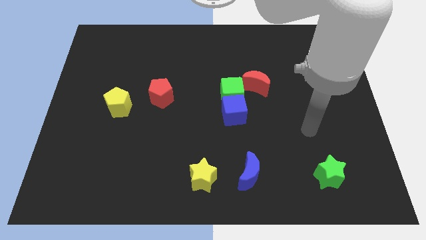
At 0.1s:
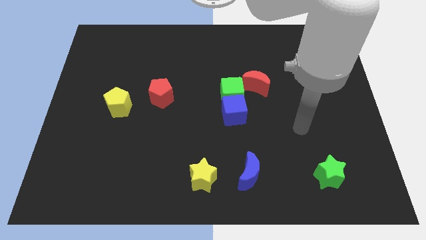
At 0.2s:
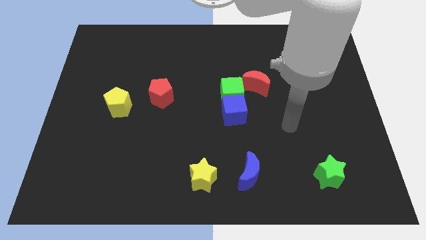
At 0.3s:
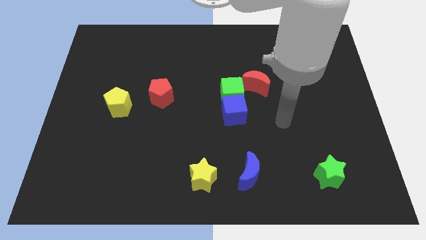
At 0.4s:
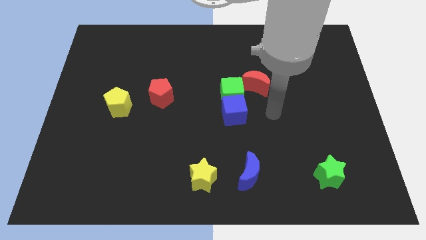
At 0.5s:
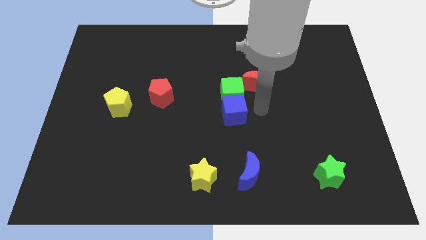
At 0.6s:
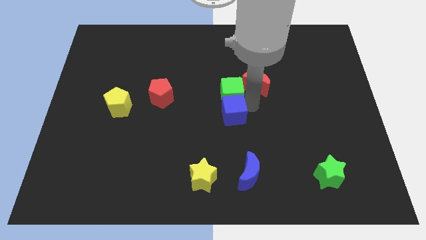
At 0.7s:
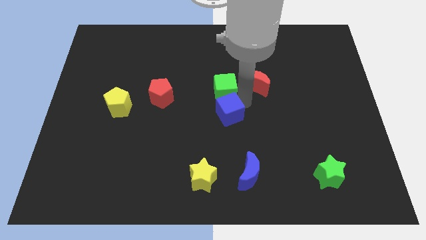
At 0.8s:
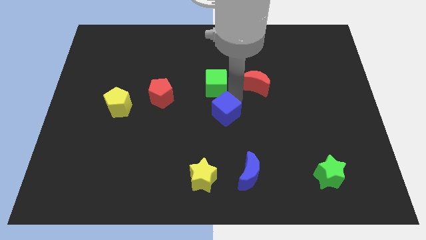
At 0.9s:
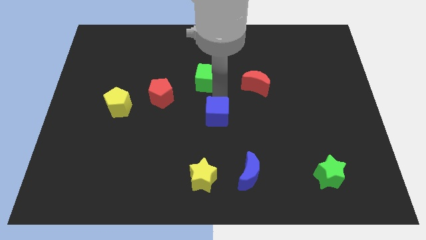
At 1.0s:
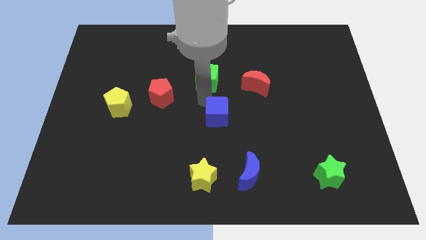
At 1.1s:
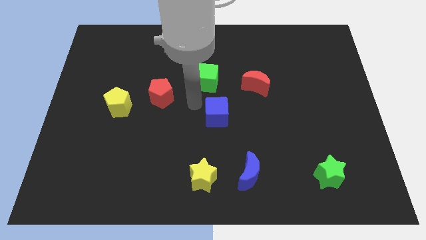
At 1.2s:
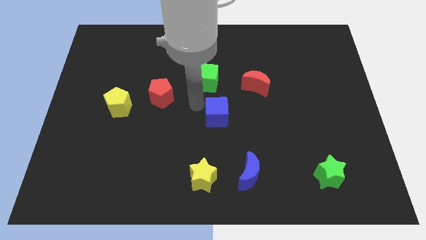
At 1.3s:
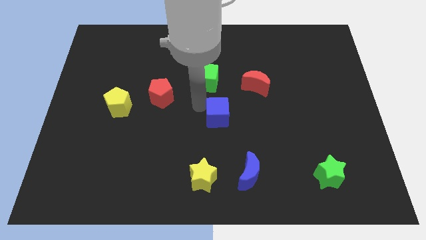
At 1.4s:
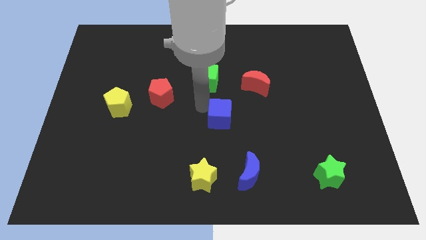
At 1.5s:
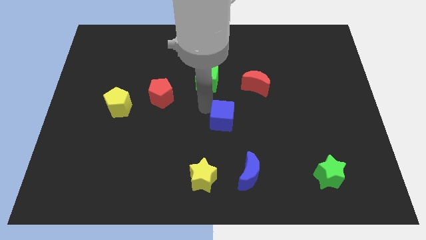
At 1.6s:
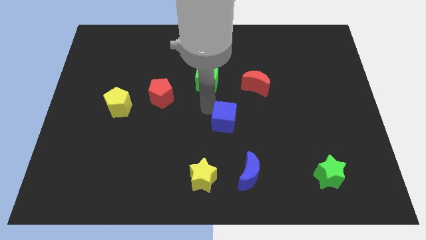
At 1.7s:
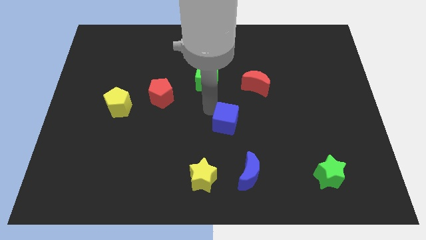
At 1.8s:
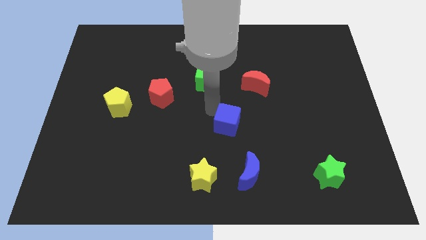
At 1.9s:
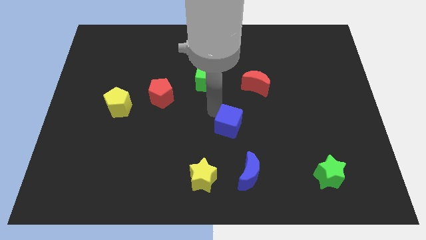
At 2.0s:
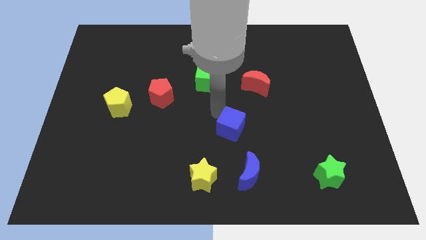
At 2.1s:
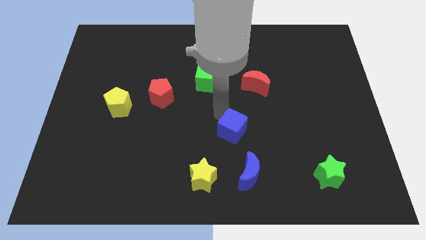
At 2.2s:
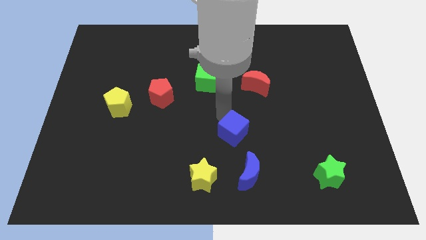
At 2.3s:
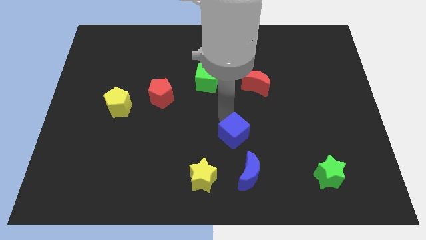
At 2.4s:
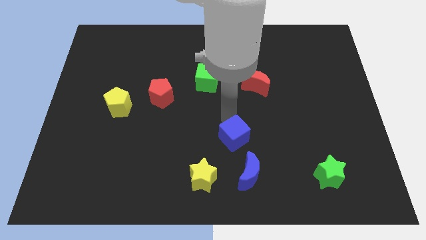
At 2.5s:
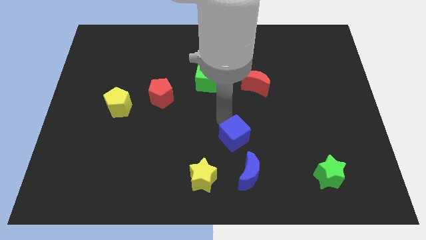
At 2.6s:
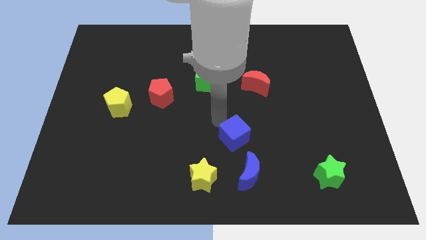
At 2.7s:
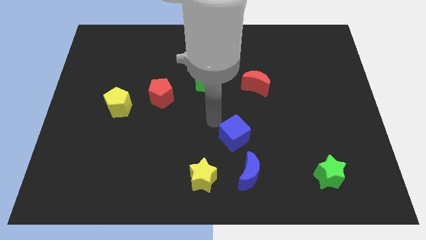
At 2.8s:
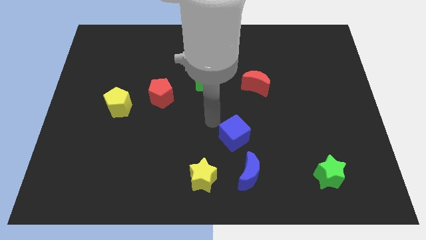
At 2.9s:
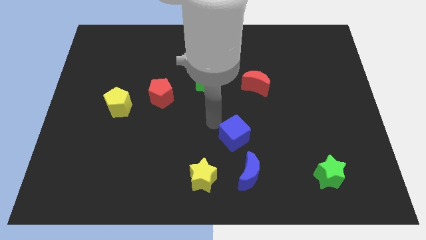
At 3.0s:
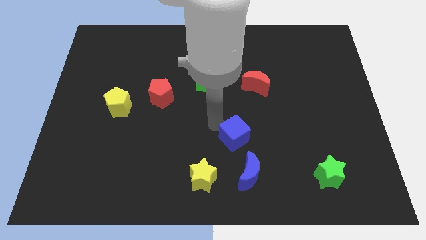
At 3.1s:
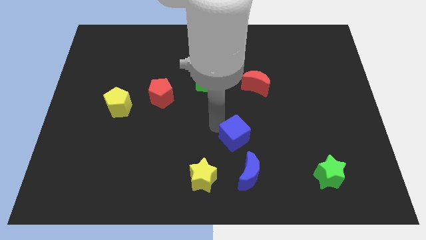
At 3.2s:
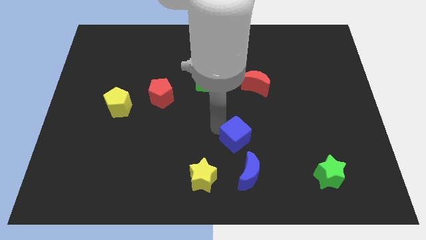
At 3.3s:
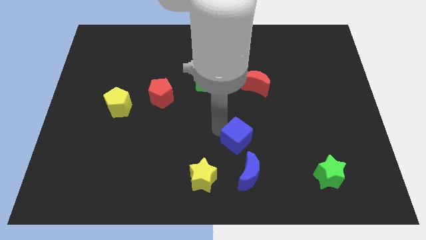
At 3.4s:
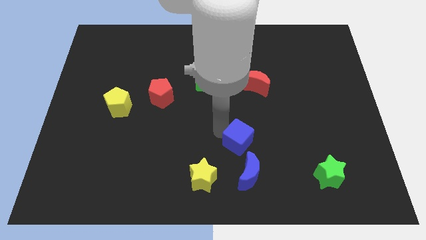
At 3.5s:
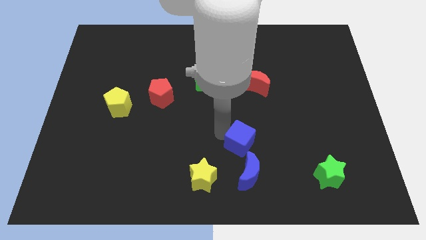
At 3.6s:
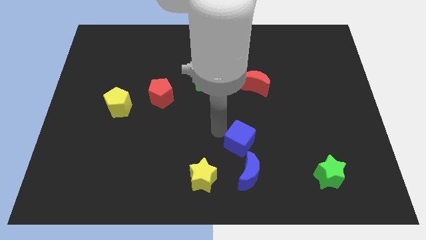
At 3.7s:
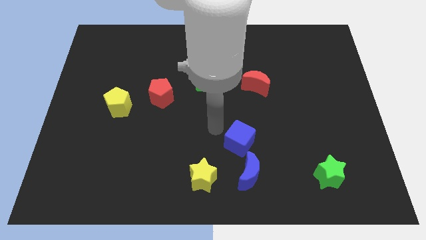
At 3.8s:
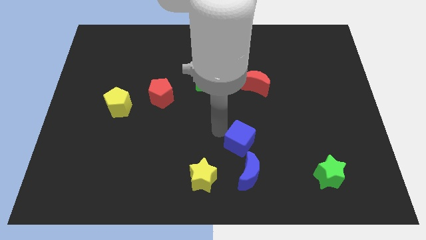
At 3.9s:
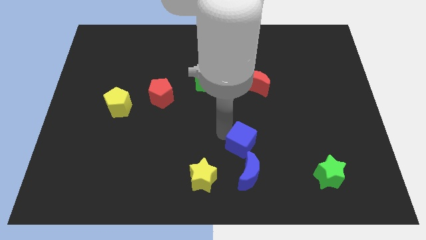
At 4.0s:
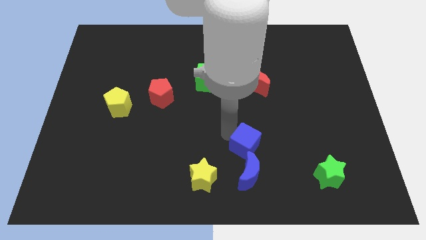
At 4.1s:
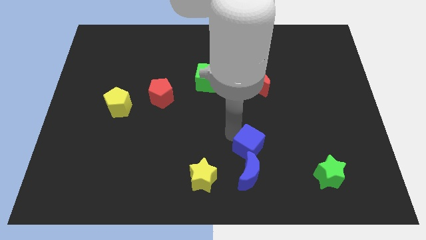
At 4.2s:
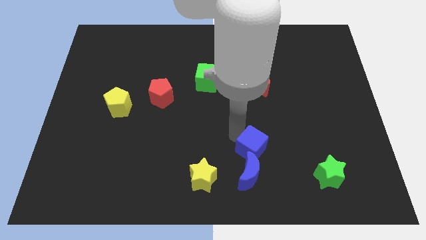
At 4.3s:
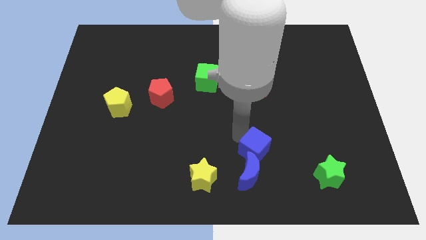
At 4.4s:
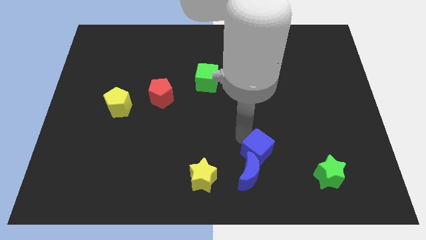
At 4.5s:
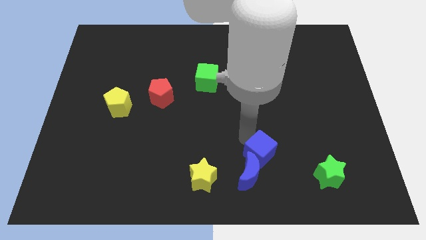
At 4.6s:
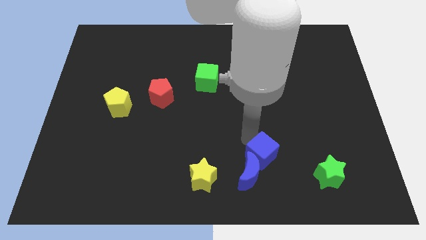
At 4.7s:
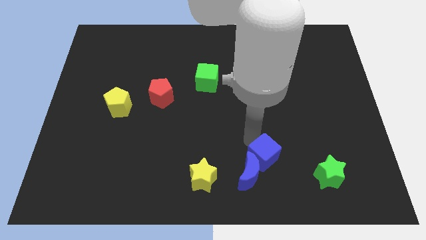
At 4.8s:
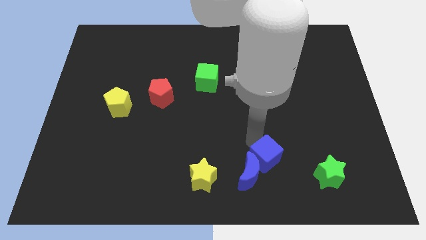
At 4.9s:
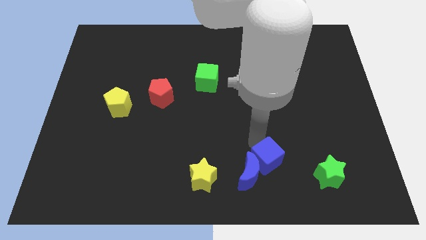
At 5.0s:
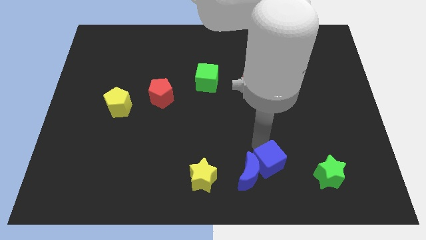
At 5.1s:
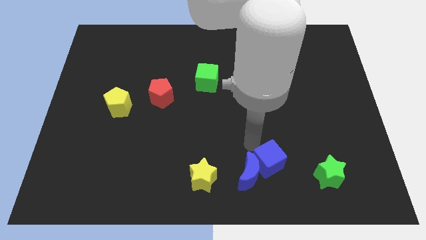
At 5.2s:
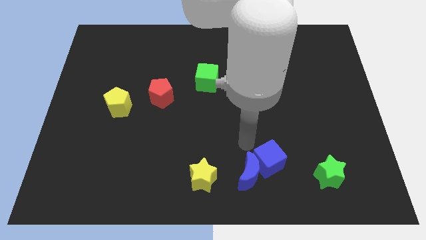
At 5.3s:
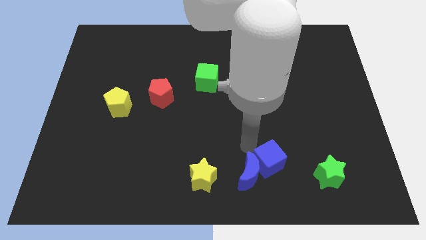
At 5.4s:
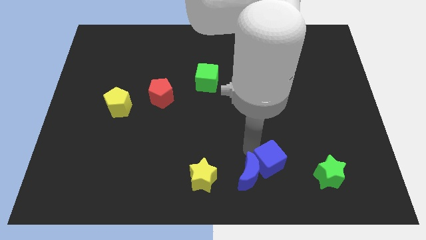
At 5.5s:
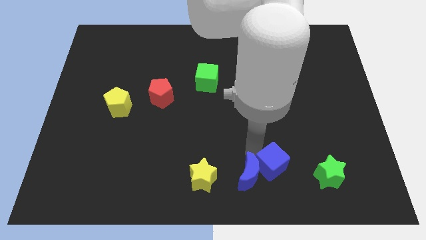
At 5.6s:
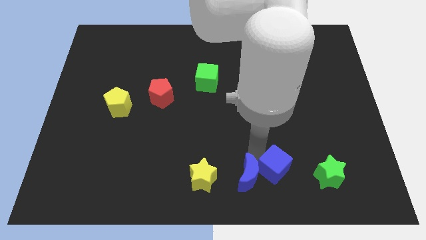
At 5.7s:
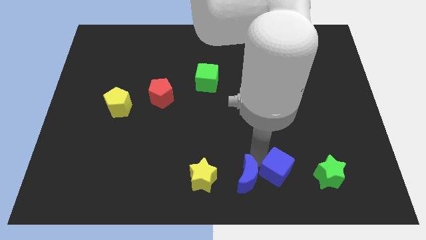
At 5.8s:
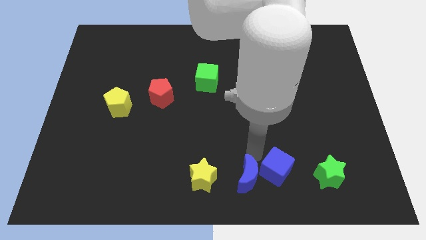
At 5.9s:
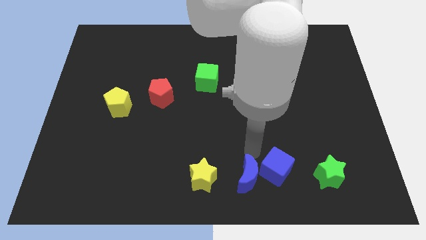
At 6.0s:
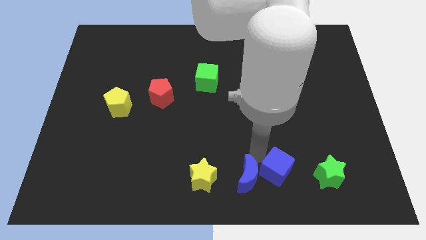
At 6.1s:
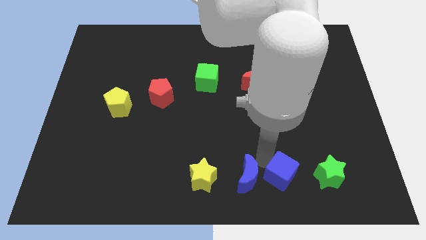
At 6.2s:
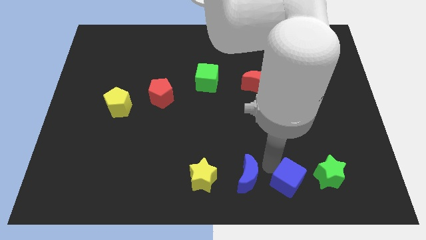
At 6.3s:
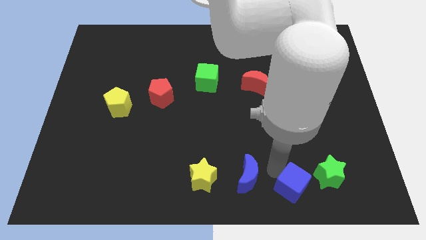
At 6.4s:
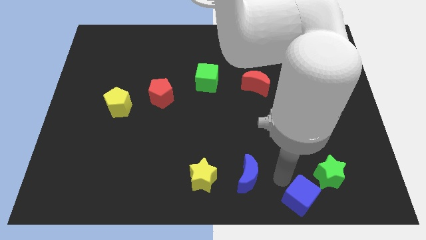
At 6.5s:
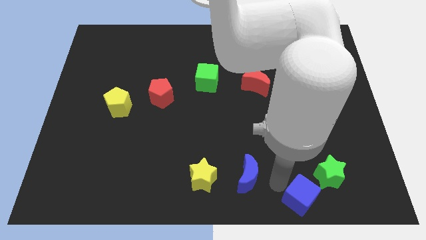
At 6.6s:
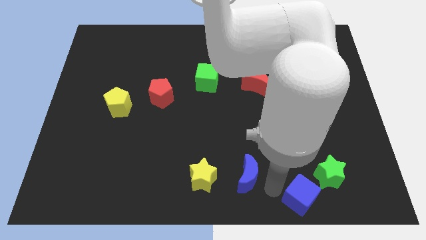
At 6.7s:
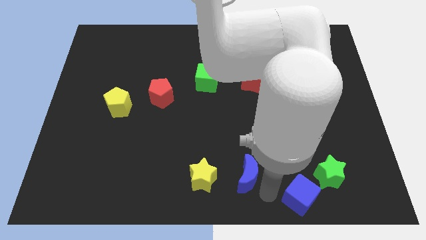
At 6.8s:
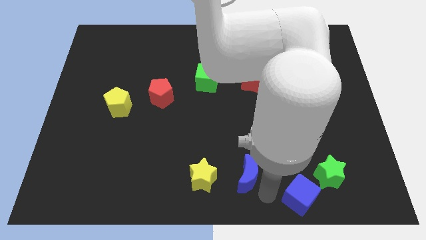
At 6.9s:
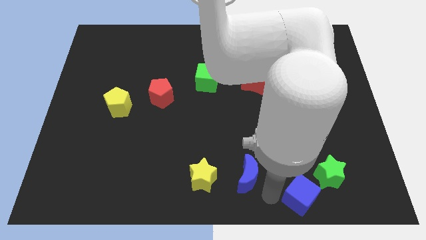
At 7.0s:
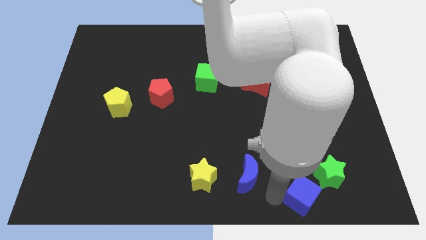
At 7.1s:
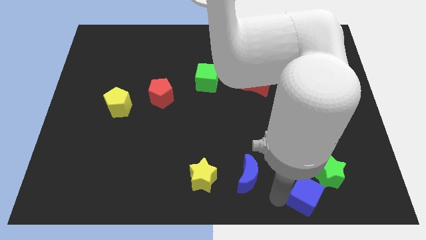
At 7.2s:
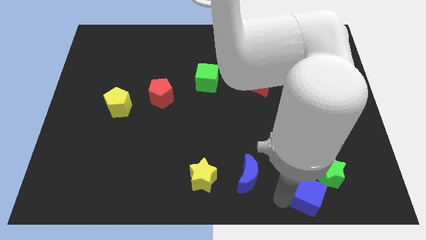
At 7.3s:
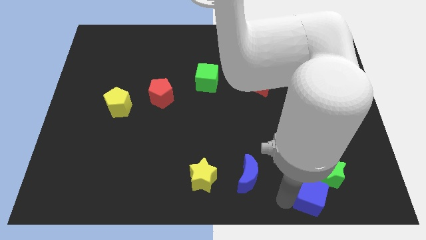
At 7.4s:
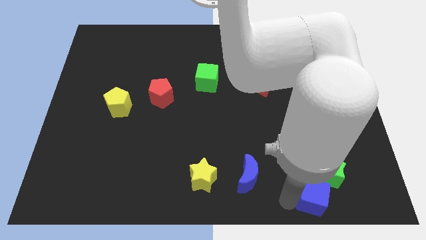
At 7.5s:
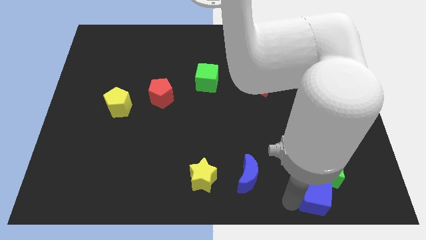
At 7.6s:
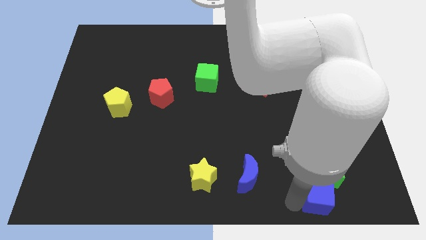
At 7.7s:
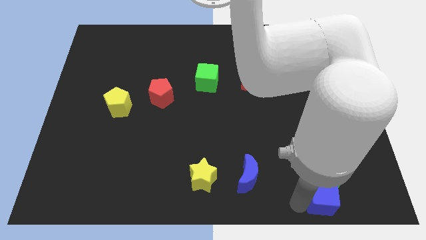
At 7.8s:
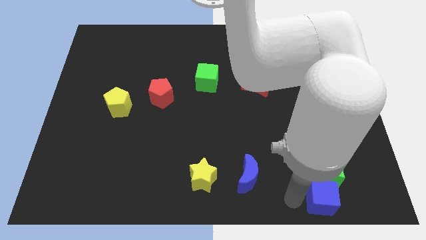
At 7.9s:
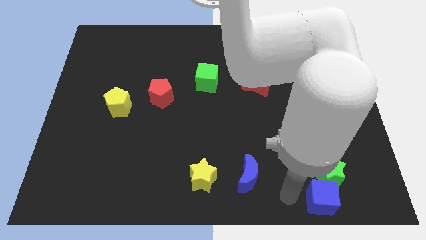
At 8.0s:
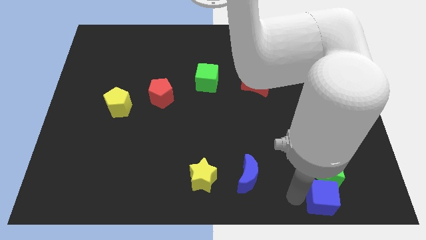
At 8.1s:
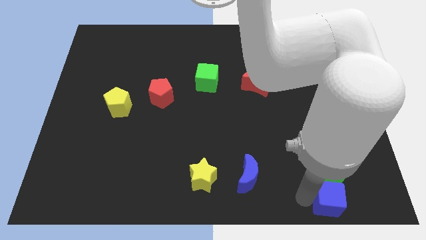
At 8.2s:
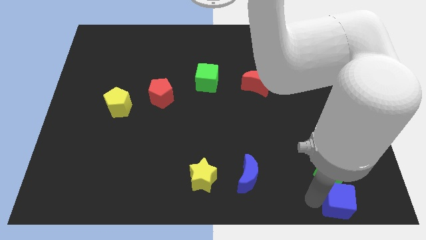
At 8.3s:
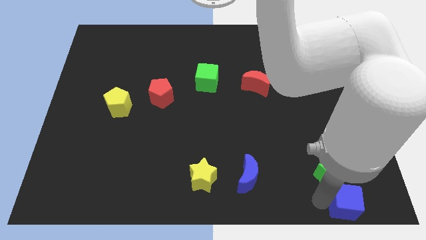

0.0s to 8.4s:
slide the blue cube to the lower right corner
